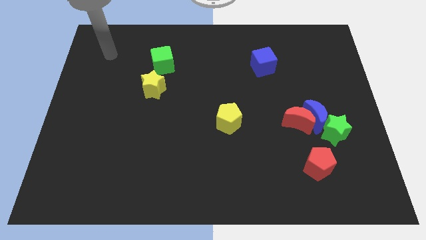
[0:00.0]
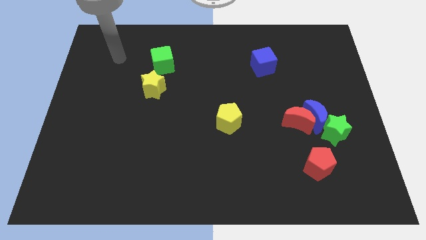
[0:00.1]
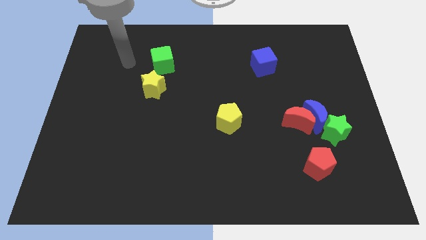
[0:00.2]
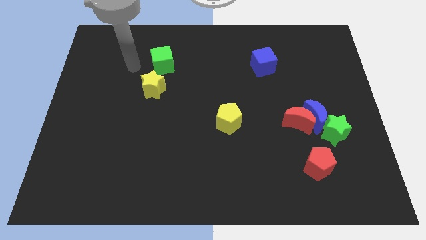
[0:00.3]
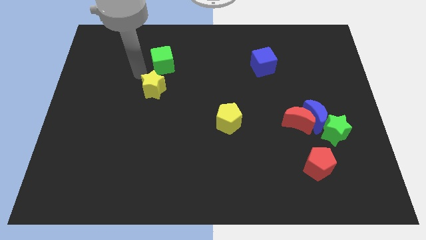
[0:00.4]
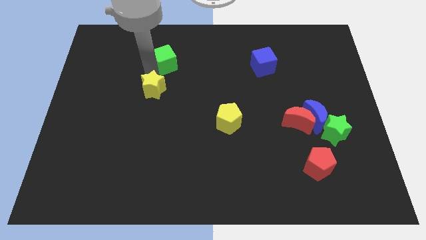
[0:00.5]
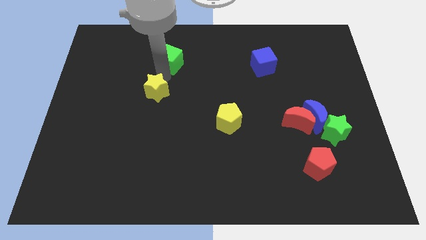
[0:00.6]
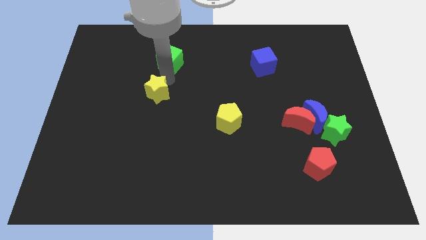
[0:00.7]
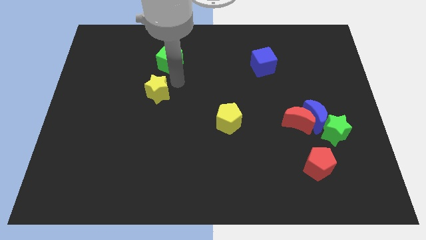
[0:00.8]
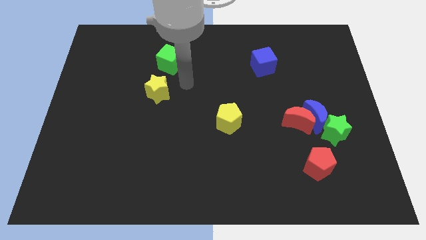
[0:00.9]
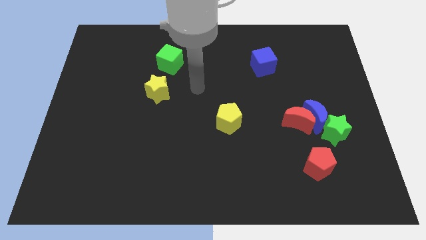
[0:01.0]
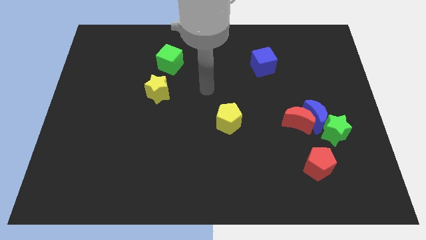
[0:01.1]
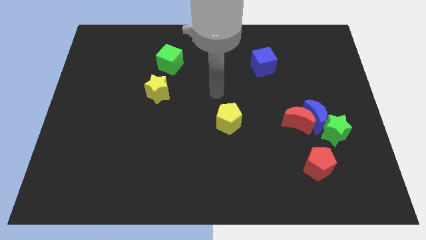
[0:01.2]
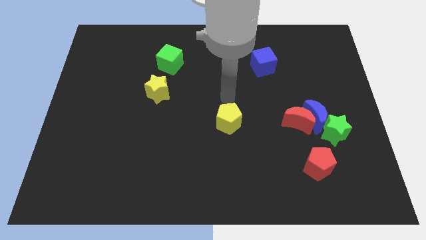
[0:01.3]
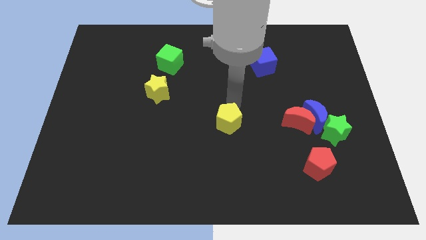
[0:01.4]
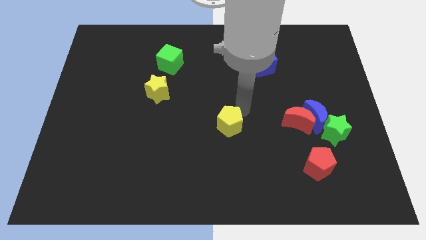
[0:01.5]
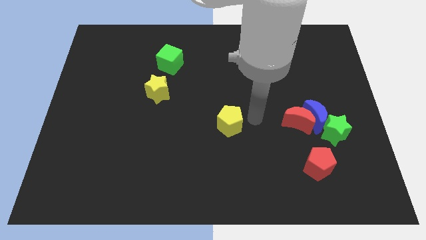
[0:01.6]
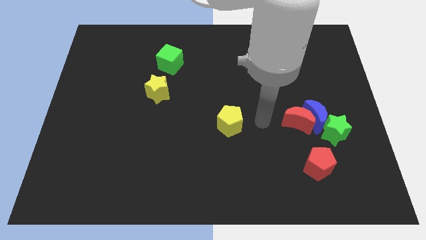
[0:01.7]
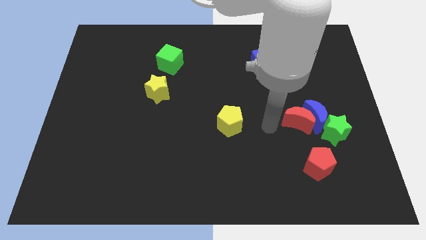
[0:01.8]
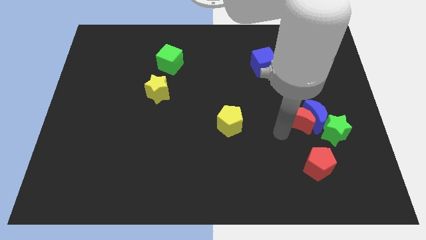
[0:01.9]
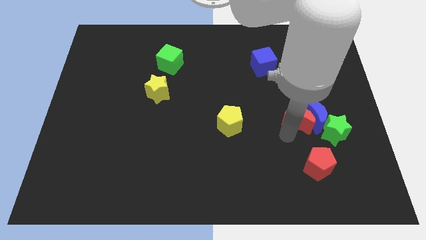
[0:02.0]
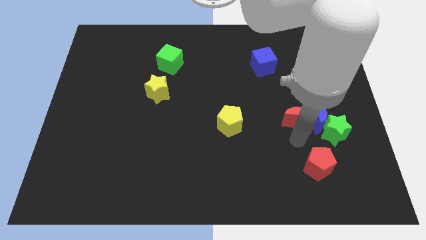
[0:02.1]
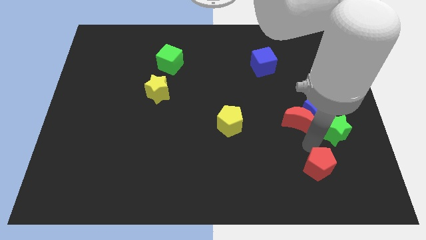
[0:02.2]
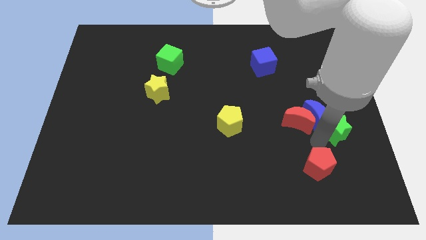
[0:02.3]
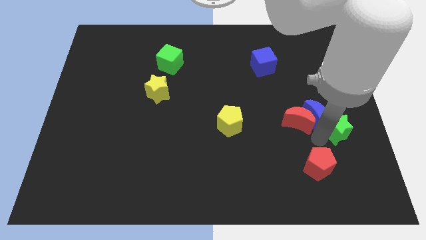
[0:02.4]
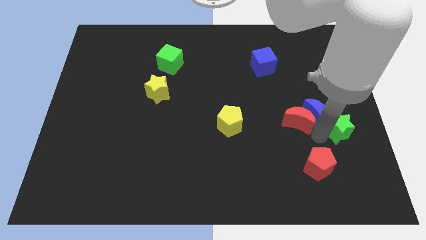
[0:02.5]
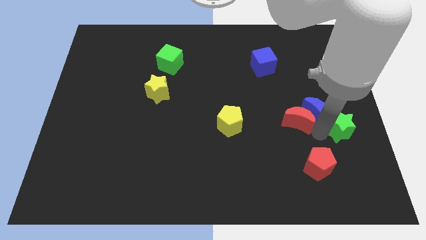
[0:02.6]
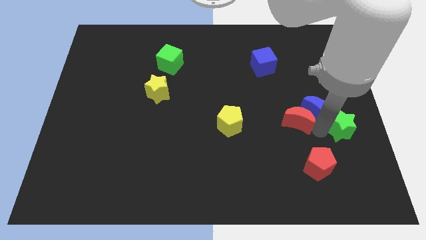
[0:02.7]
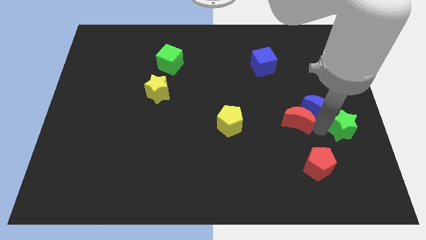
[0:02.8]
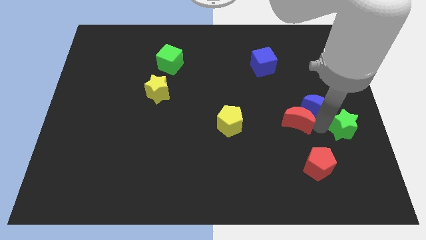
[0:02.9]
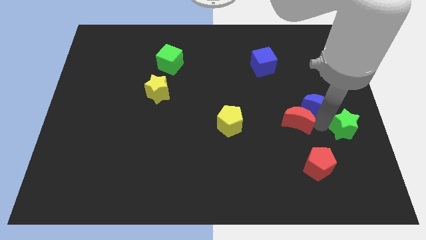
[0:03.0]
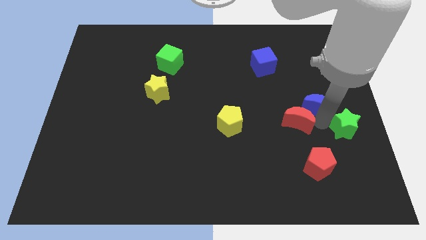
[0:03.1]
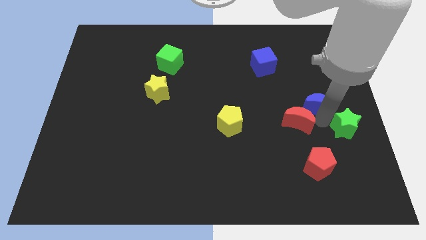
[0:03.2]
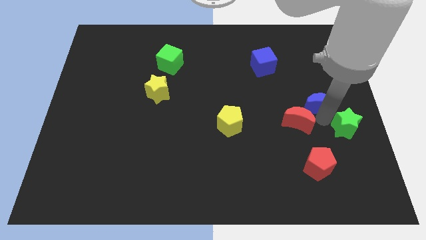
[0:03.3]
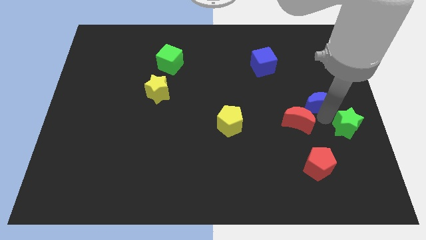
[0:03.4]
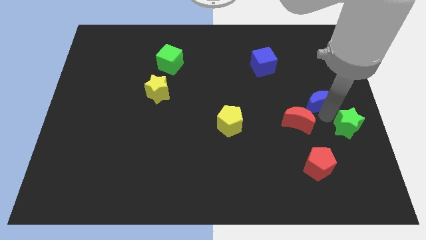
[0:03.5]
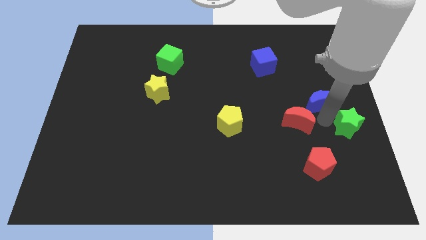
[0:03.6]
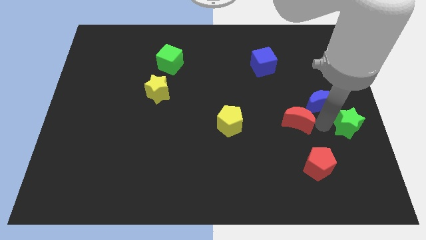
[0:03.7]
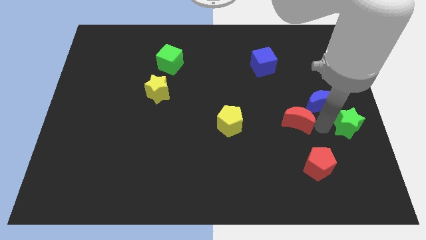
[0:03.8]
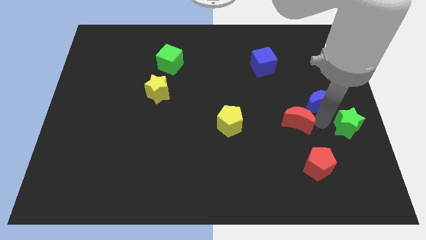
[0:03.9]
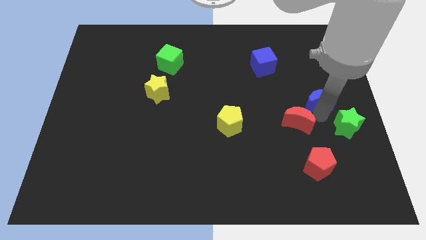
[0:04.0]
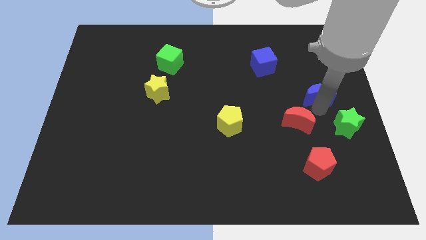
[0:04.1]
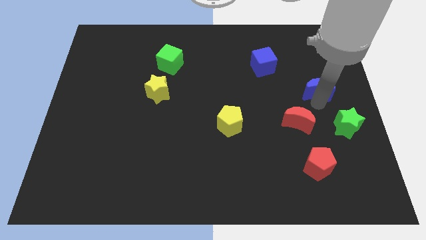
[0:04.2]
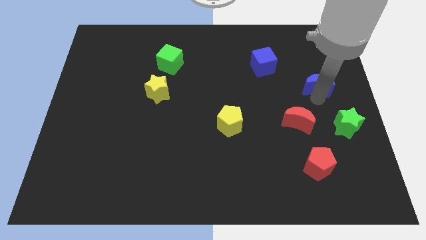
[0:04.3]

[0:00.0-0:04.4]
move the blue moon away from the red moon and green star

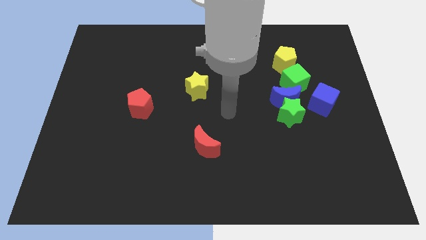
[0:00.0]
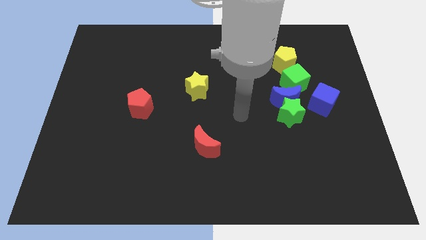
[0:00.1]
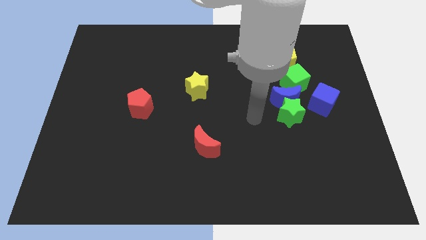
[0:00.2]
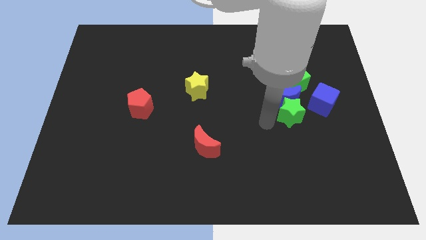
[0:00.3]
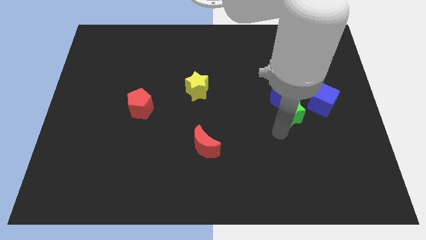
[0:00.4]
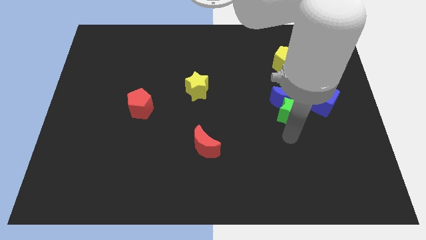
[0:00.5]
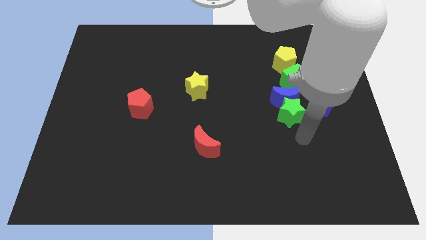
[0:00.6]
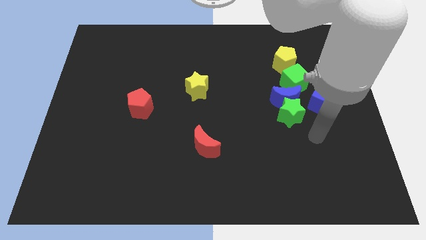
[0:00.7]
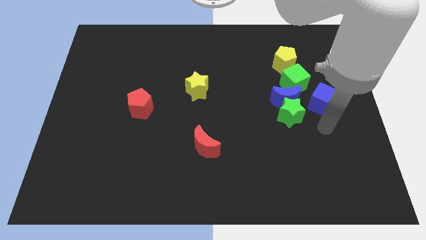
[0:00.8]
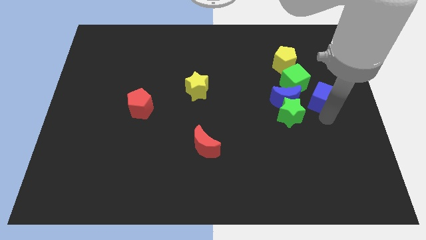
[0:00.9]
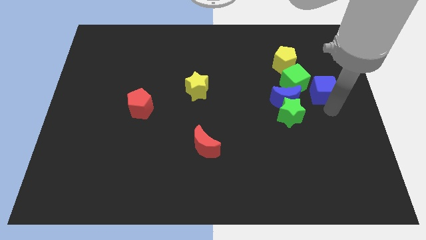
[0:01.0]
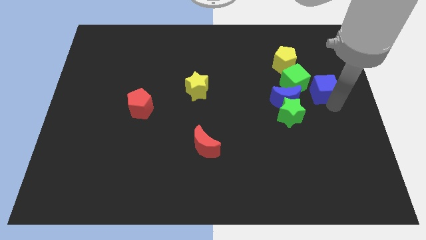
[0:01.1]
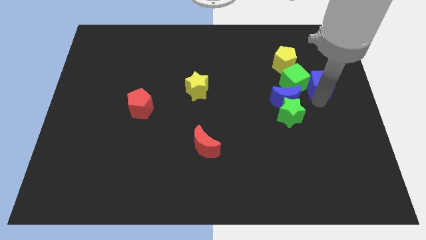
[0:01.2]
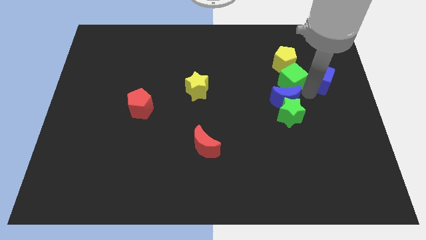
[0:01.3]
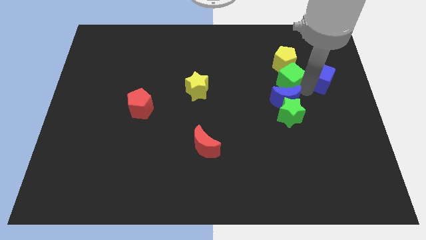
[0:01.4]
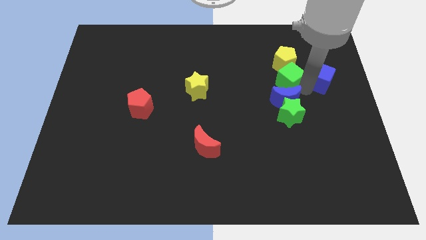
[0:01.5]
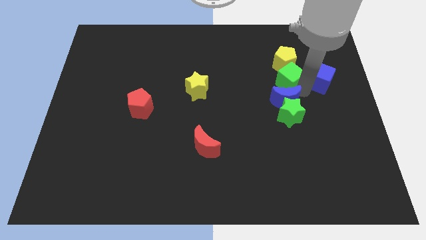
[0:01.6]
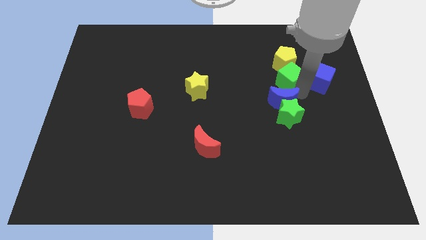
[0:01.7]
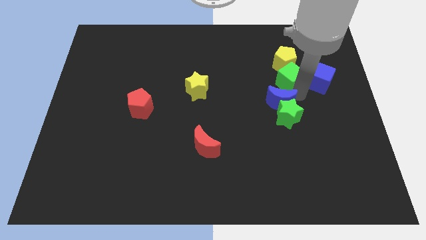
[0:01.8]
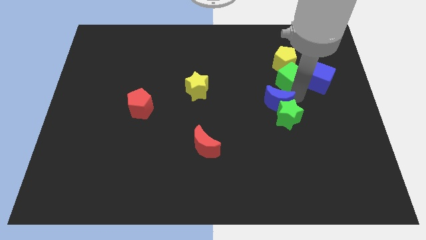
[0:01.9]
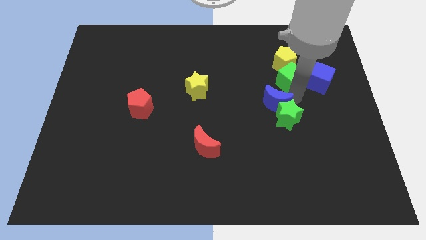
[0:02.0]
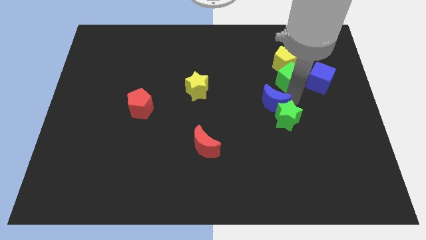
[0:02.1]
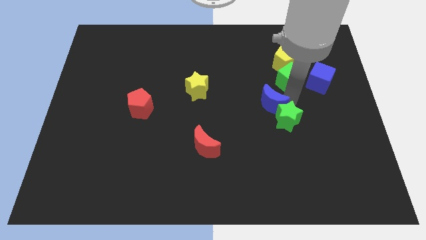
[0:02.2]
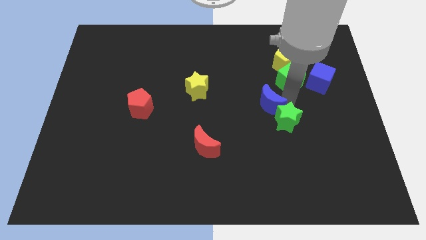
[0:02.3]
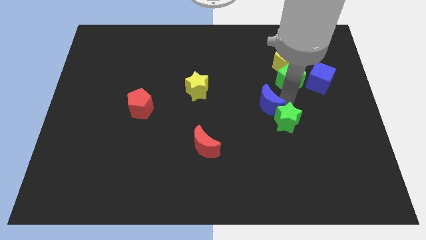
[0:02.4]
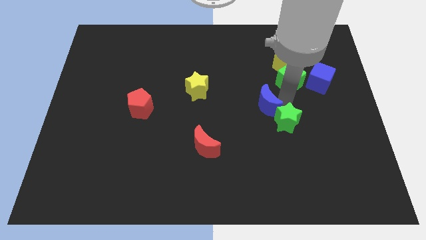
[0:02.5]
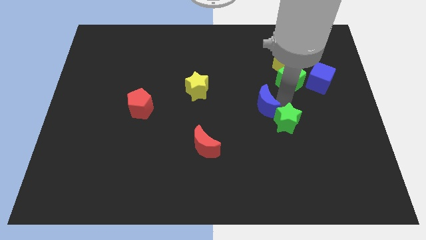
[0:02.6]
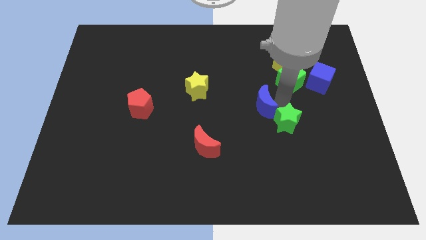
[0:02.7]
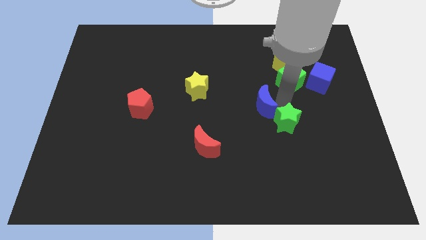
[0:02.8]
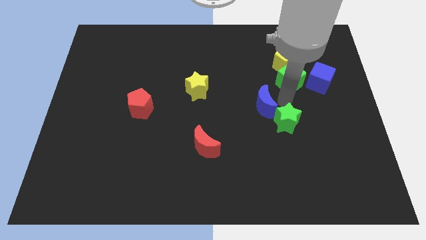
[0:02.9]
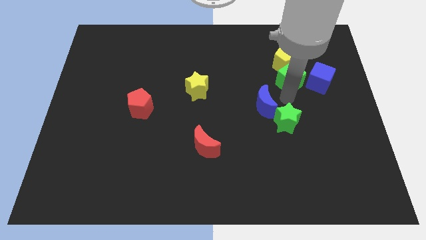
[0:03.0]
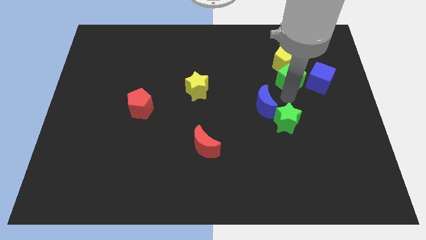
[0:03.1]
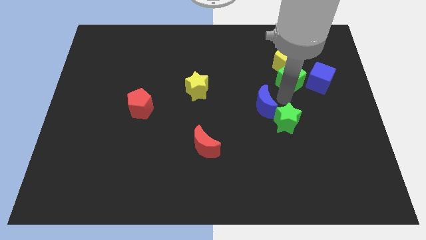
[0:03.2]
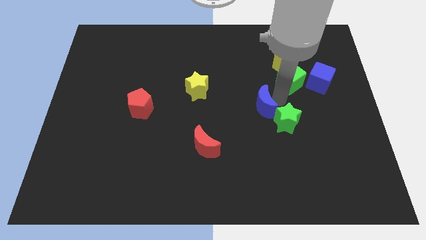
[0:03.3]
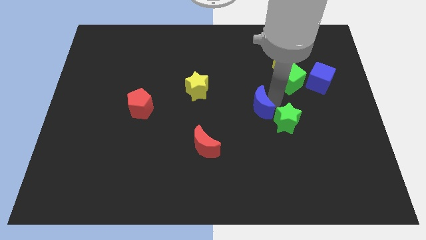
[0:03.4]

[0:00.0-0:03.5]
pull the blue moon apart from the clump

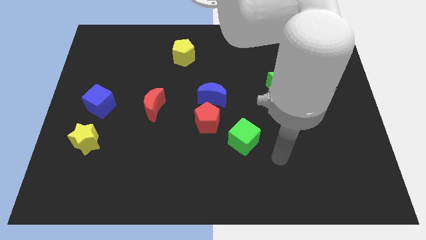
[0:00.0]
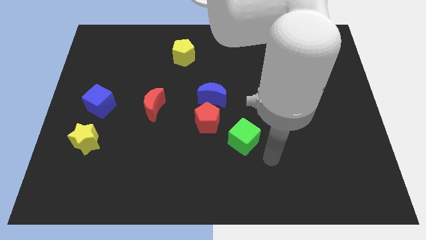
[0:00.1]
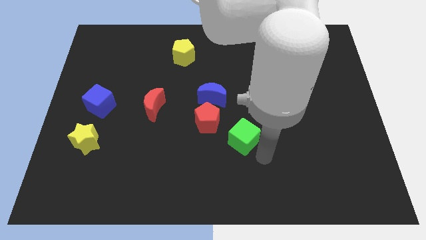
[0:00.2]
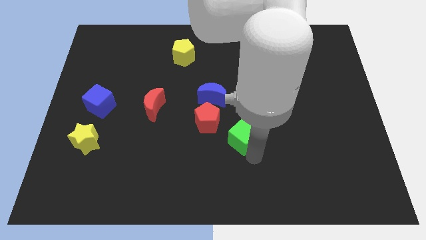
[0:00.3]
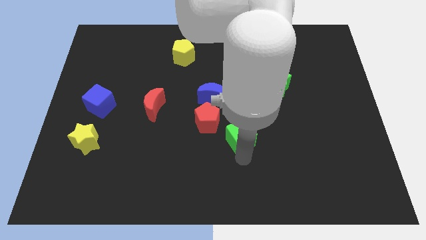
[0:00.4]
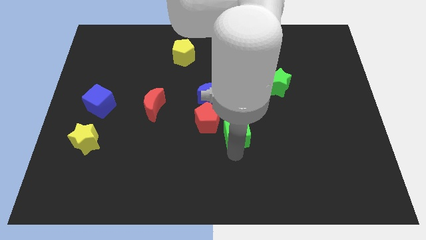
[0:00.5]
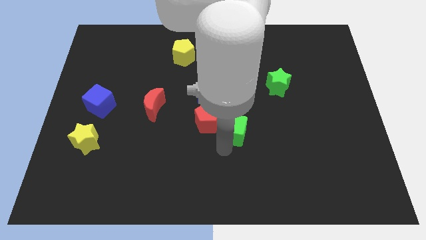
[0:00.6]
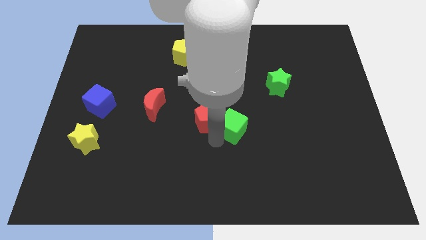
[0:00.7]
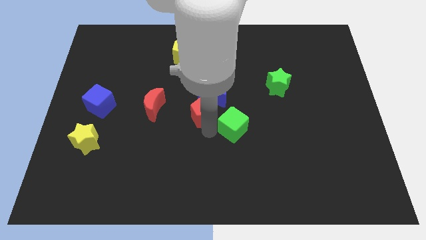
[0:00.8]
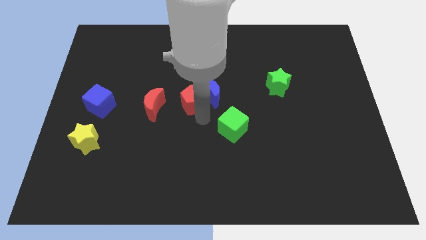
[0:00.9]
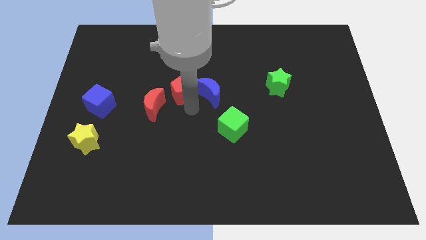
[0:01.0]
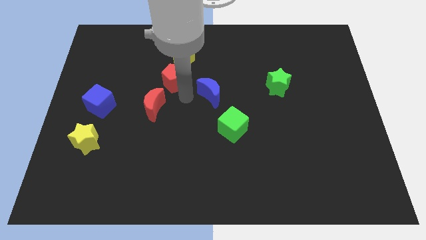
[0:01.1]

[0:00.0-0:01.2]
move the blue moon away from the red pentagon

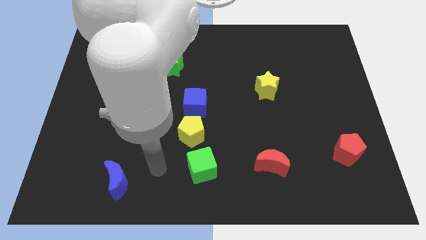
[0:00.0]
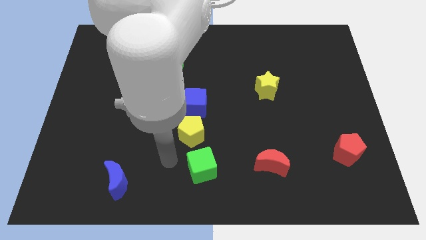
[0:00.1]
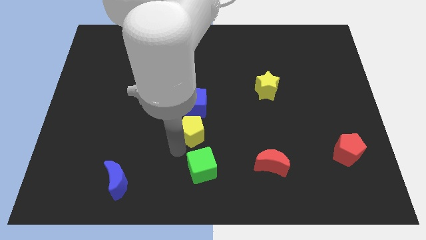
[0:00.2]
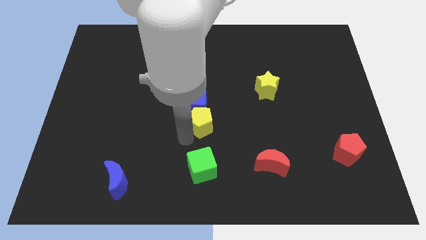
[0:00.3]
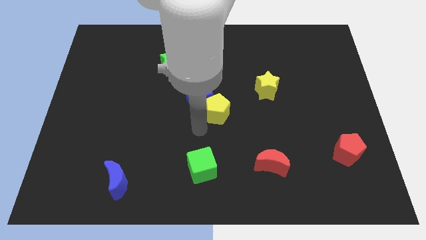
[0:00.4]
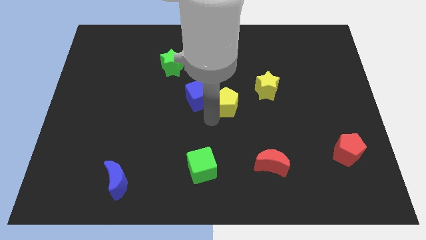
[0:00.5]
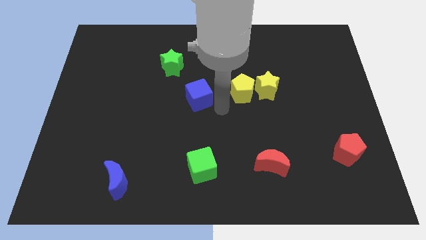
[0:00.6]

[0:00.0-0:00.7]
move the blue cube away from the yellow pentagon
